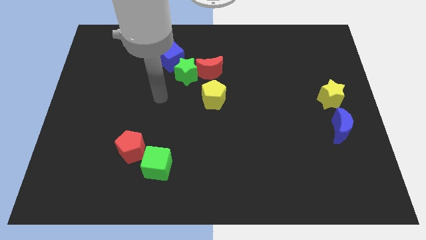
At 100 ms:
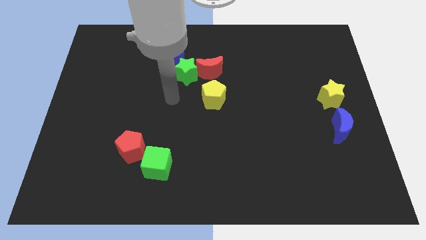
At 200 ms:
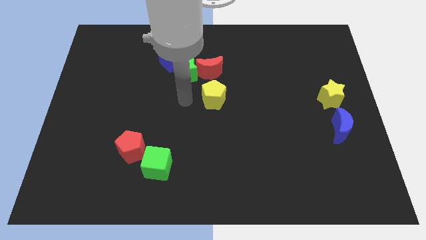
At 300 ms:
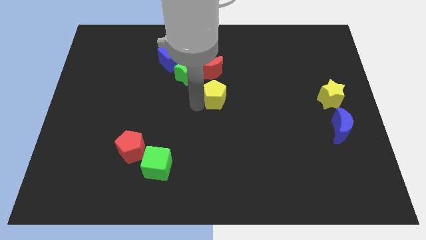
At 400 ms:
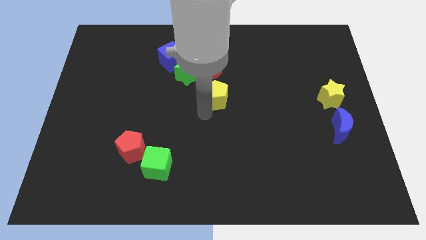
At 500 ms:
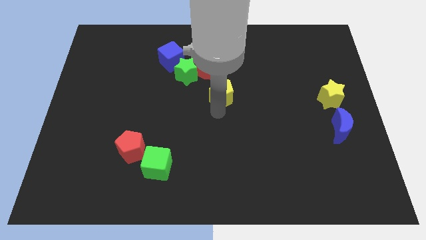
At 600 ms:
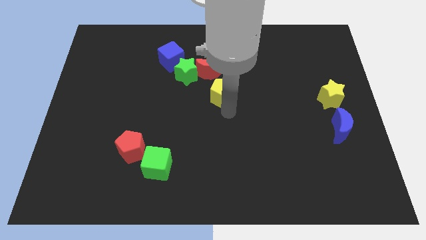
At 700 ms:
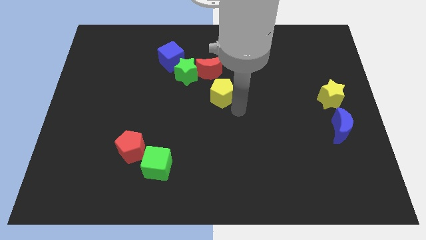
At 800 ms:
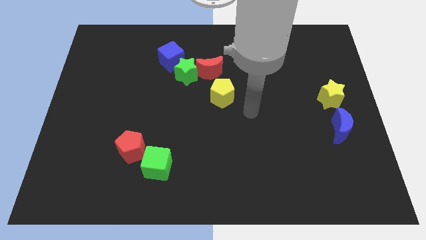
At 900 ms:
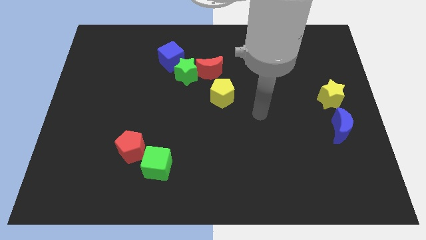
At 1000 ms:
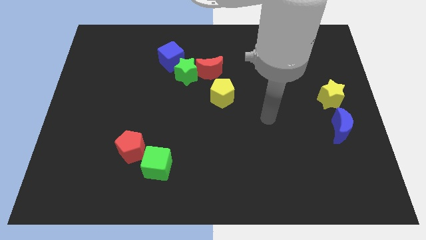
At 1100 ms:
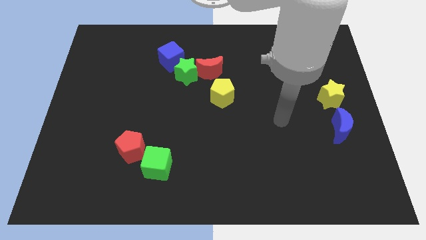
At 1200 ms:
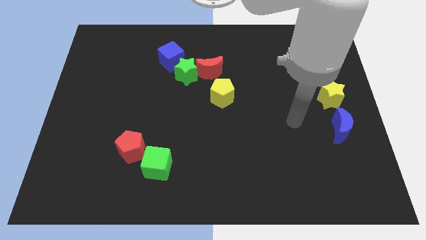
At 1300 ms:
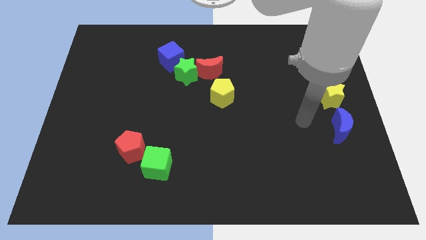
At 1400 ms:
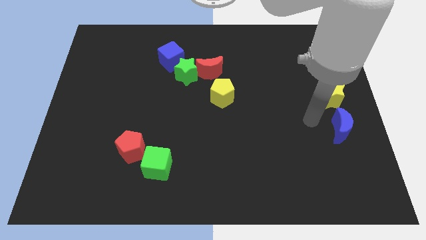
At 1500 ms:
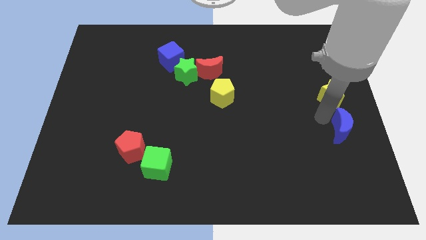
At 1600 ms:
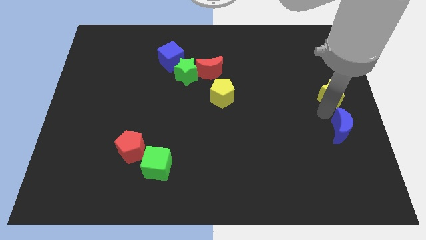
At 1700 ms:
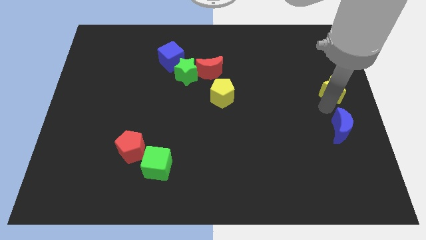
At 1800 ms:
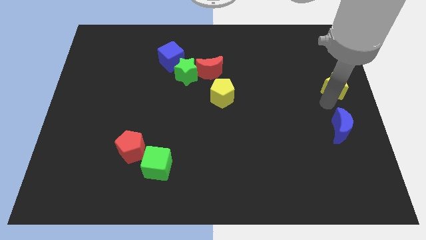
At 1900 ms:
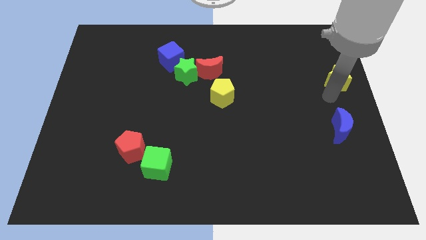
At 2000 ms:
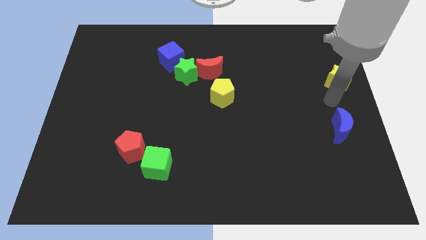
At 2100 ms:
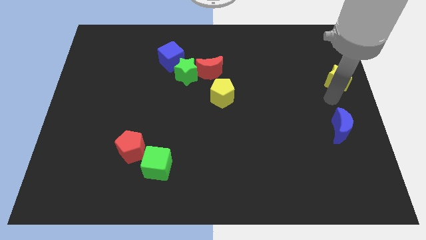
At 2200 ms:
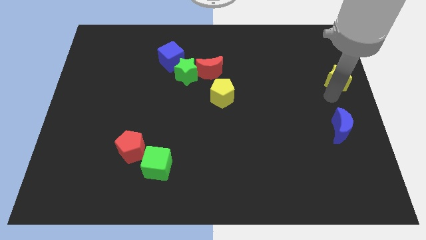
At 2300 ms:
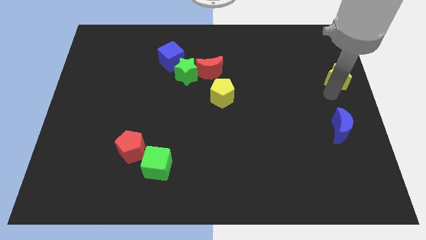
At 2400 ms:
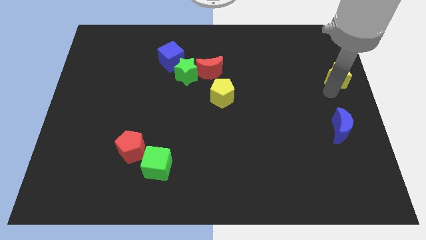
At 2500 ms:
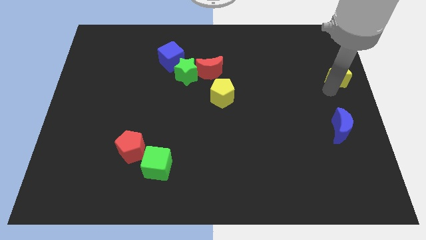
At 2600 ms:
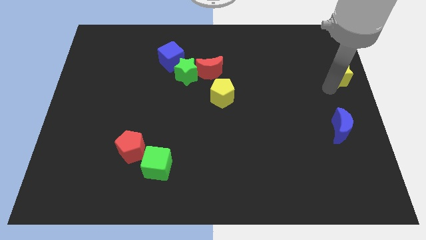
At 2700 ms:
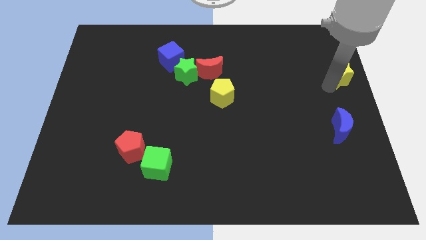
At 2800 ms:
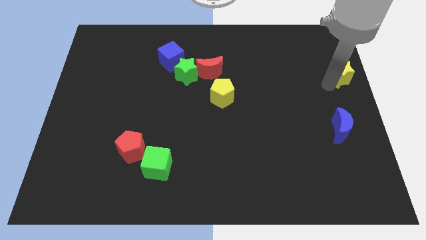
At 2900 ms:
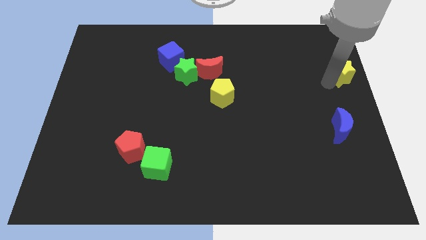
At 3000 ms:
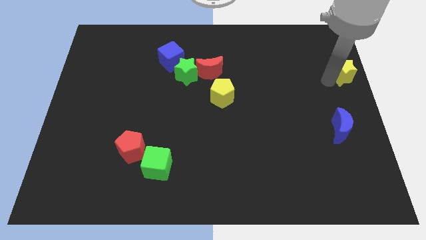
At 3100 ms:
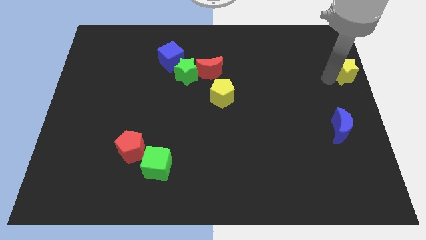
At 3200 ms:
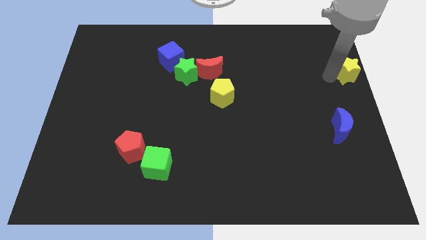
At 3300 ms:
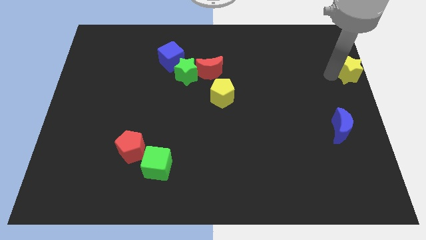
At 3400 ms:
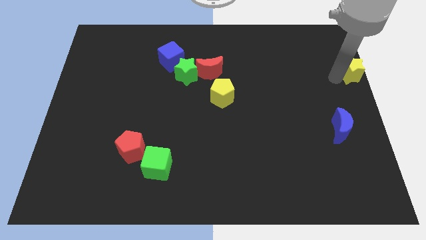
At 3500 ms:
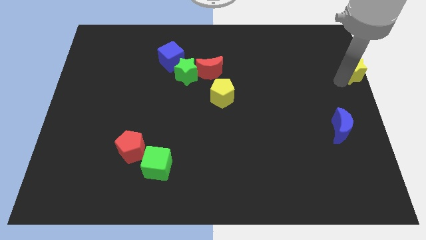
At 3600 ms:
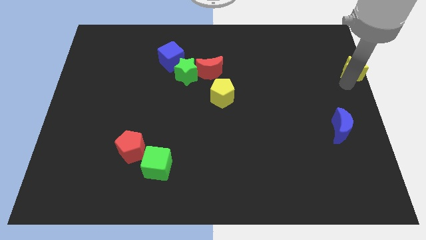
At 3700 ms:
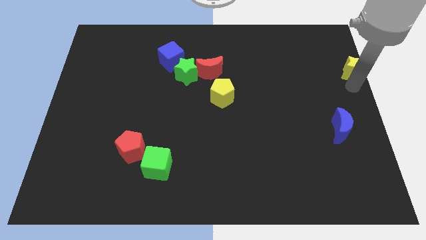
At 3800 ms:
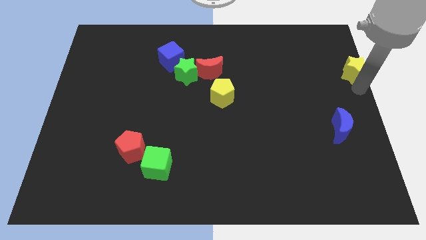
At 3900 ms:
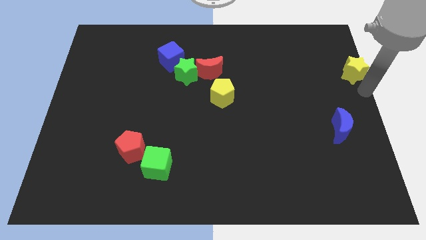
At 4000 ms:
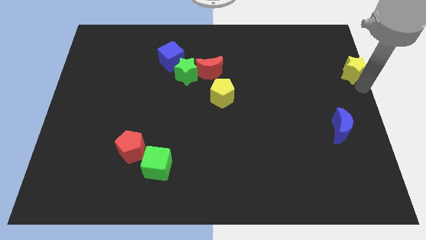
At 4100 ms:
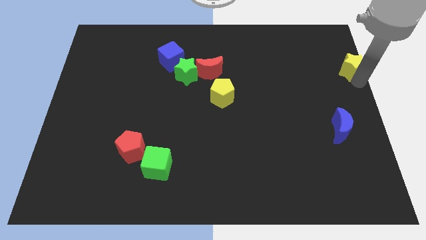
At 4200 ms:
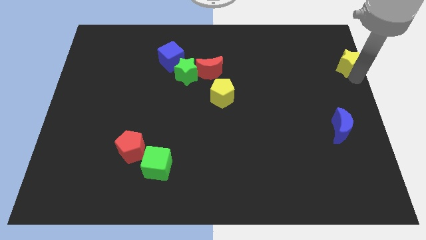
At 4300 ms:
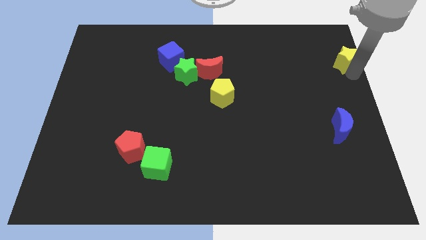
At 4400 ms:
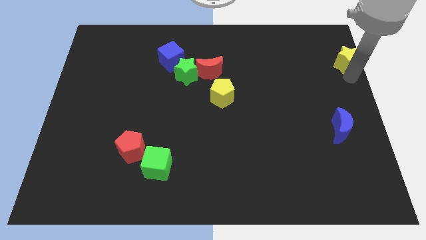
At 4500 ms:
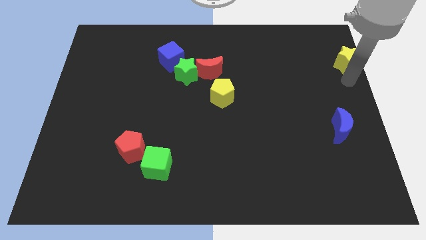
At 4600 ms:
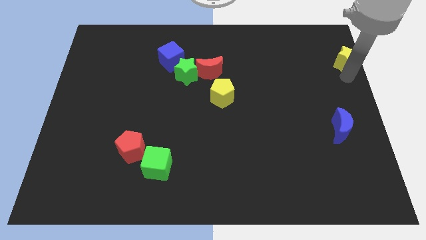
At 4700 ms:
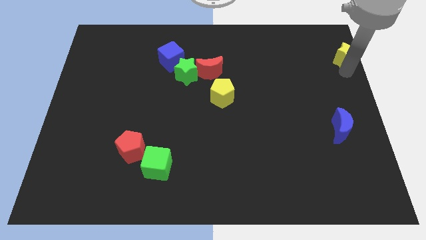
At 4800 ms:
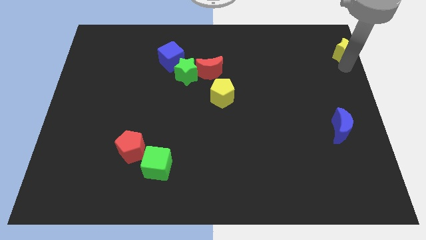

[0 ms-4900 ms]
push the yellow star to the upper right corner

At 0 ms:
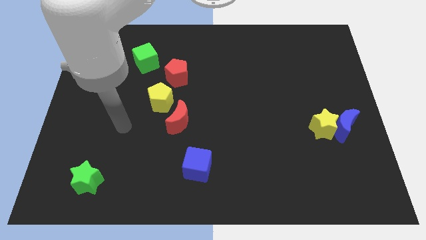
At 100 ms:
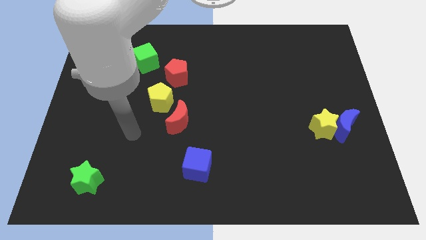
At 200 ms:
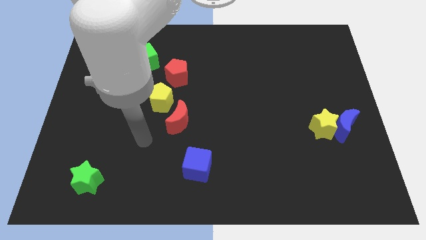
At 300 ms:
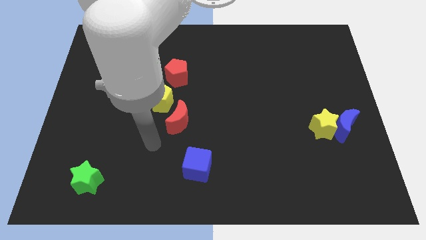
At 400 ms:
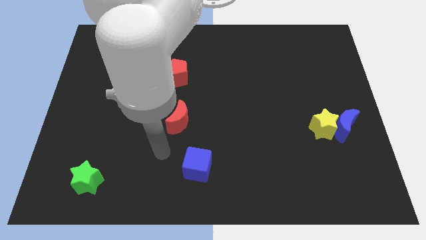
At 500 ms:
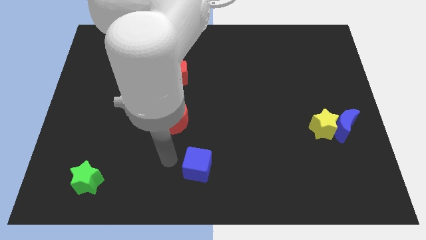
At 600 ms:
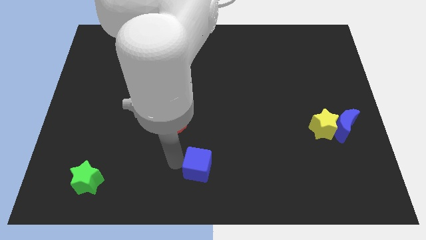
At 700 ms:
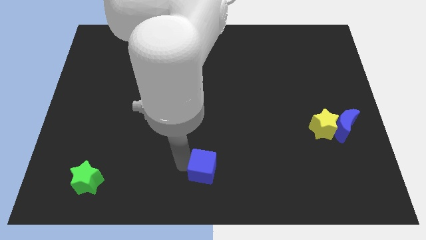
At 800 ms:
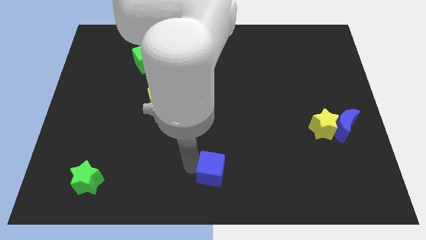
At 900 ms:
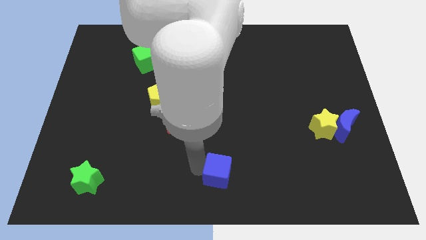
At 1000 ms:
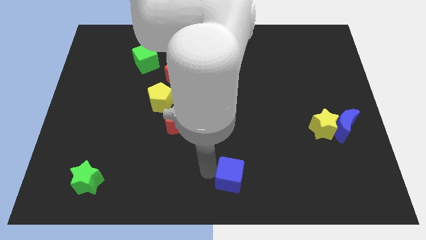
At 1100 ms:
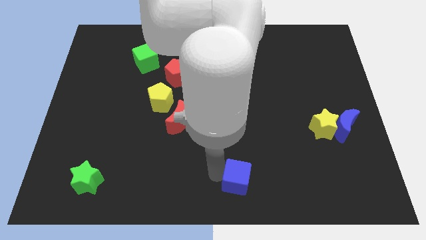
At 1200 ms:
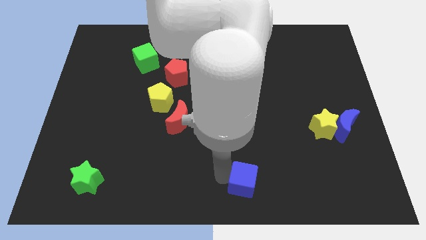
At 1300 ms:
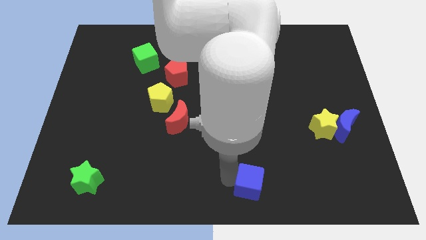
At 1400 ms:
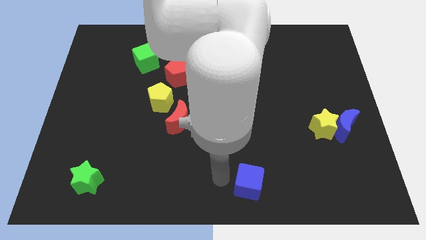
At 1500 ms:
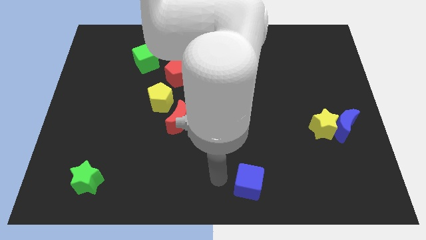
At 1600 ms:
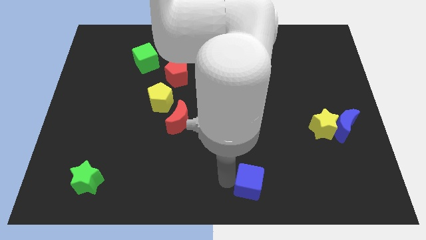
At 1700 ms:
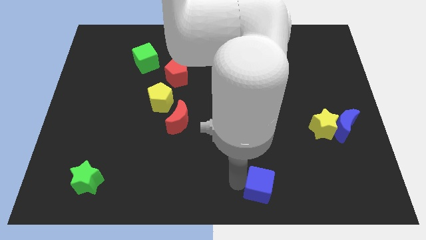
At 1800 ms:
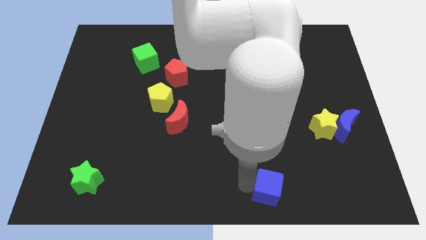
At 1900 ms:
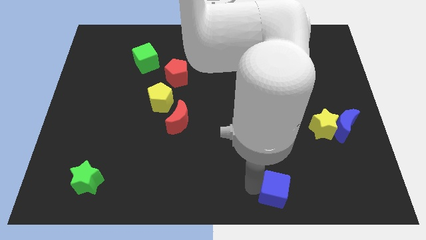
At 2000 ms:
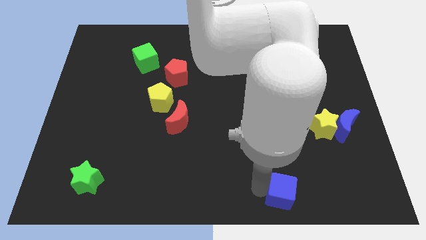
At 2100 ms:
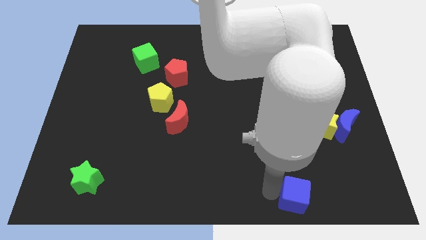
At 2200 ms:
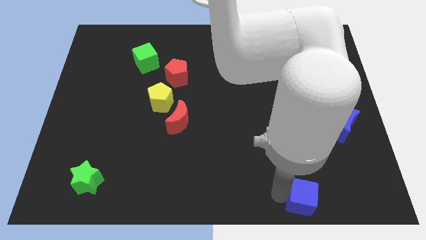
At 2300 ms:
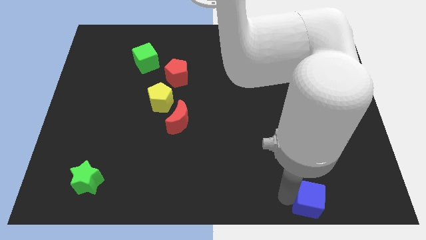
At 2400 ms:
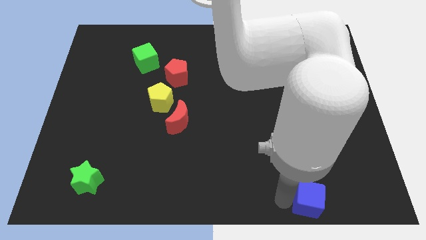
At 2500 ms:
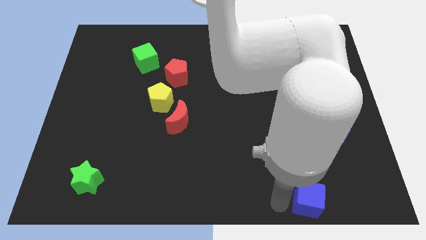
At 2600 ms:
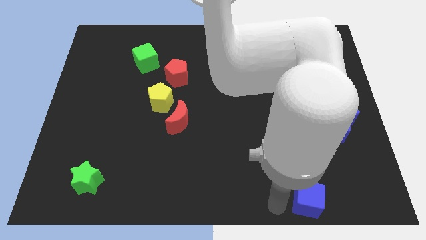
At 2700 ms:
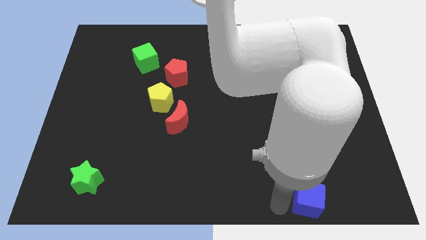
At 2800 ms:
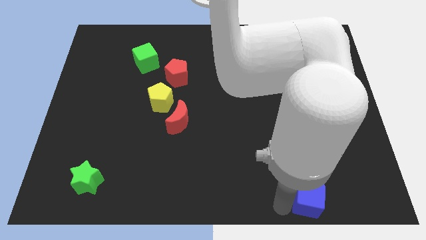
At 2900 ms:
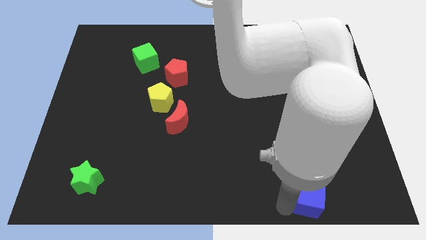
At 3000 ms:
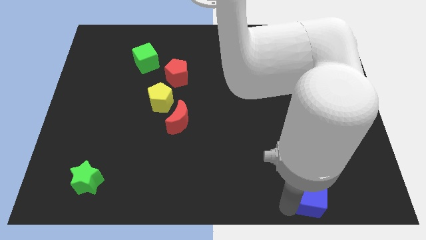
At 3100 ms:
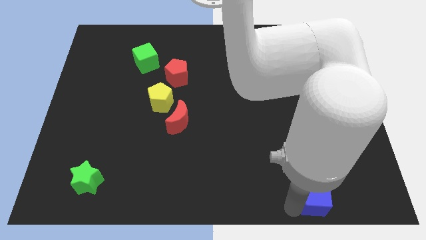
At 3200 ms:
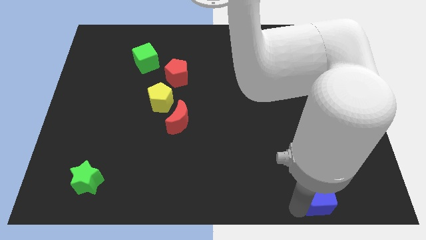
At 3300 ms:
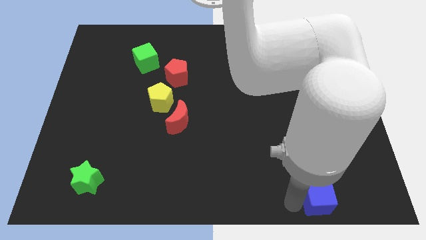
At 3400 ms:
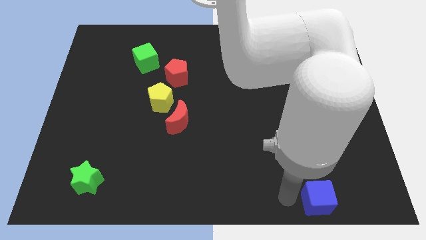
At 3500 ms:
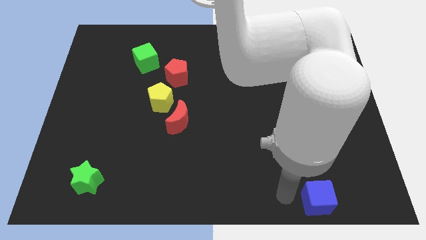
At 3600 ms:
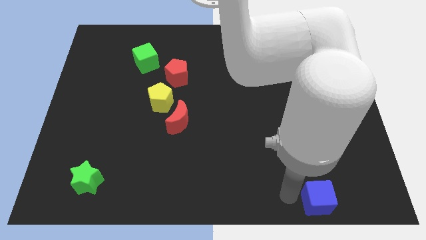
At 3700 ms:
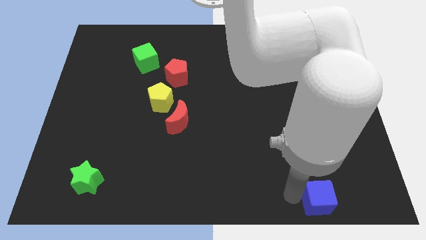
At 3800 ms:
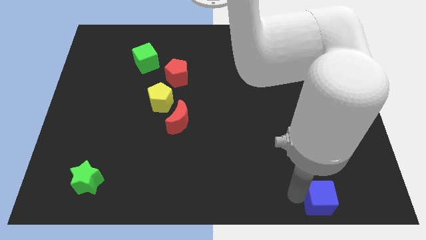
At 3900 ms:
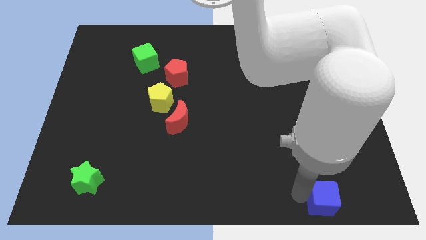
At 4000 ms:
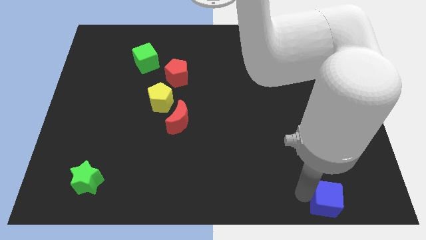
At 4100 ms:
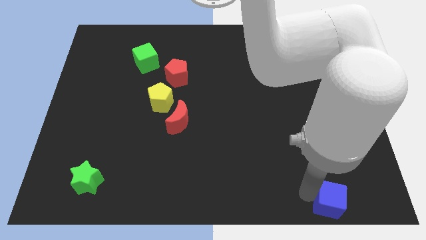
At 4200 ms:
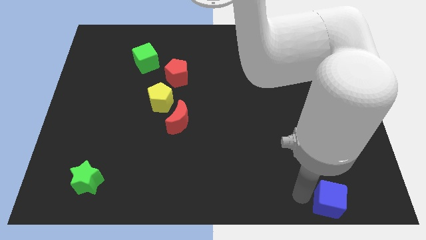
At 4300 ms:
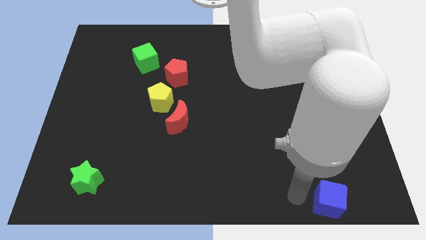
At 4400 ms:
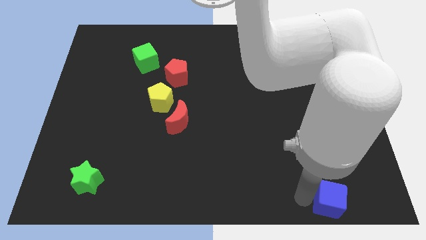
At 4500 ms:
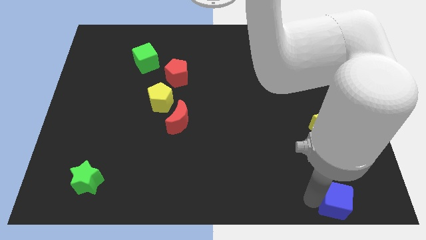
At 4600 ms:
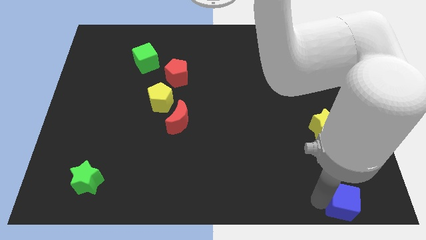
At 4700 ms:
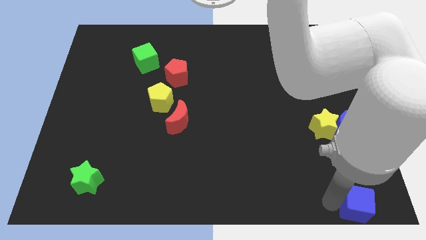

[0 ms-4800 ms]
move the blue cube to the lower right corner
